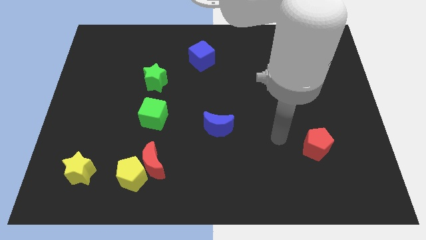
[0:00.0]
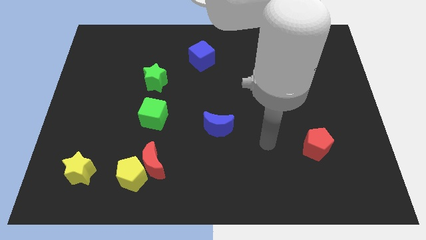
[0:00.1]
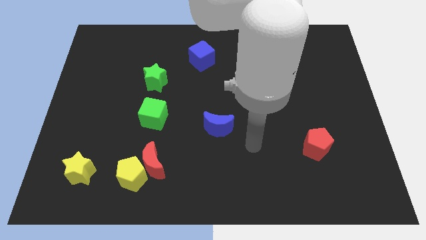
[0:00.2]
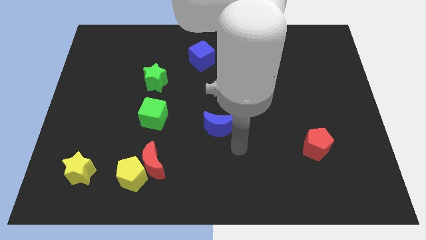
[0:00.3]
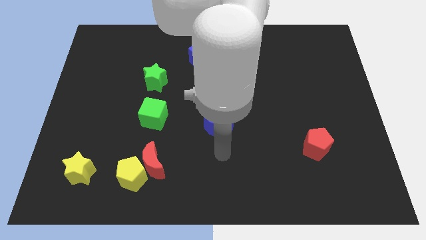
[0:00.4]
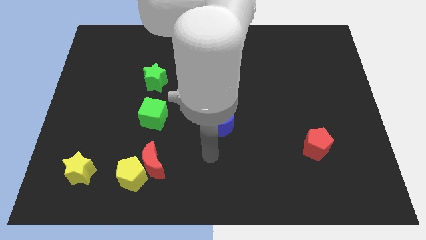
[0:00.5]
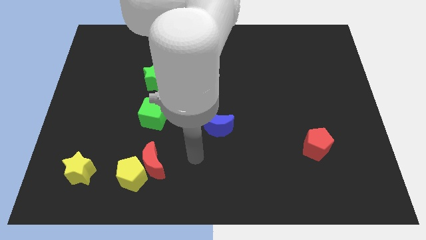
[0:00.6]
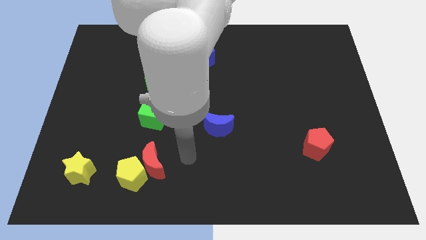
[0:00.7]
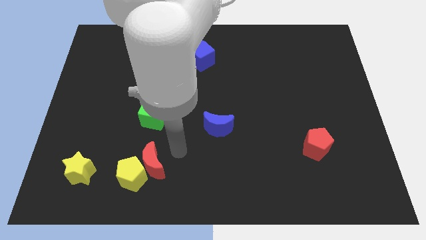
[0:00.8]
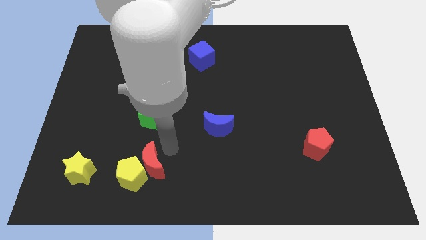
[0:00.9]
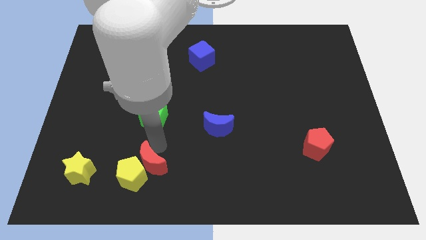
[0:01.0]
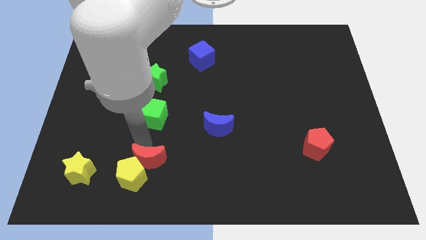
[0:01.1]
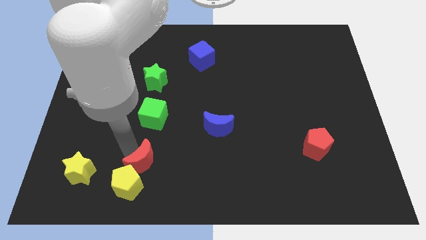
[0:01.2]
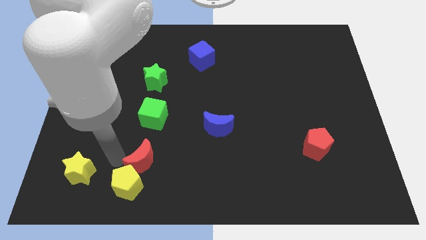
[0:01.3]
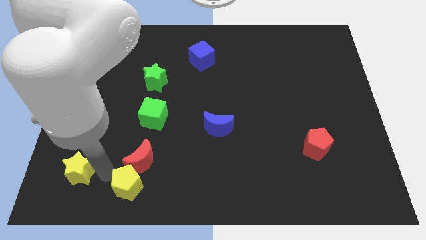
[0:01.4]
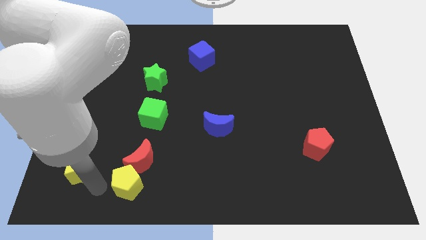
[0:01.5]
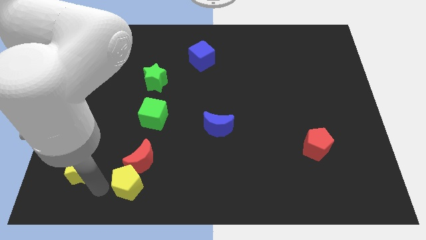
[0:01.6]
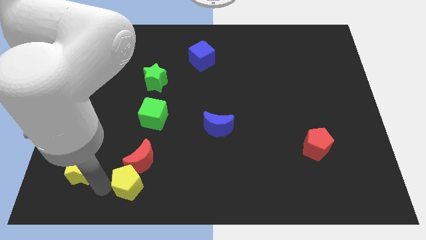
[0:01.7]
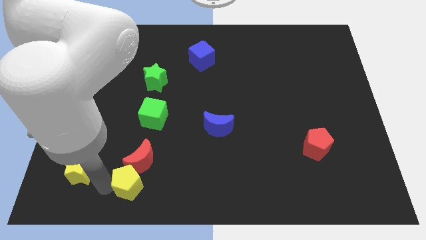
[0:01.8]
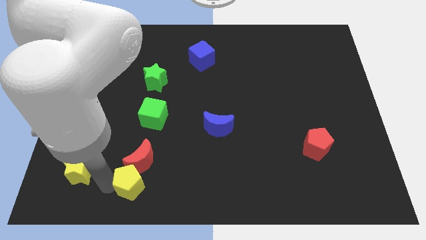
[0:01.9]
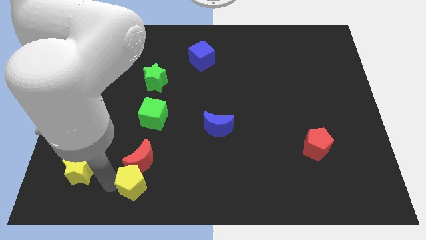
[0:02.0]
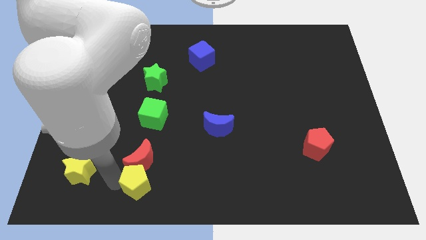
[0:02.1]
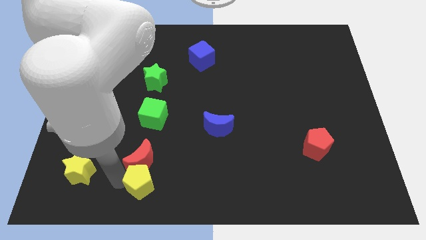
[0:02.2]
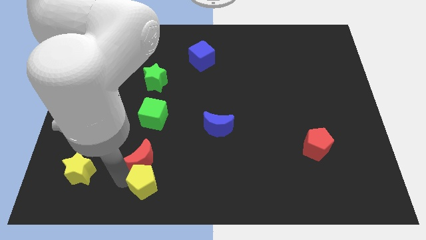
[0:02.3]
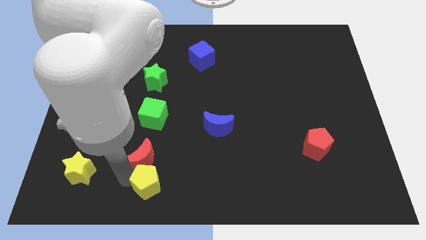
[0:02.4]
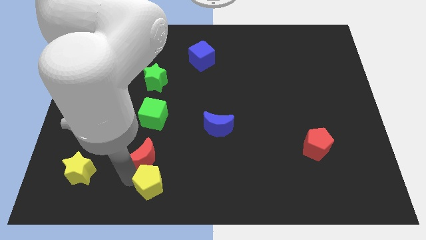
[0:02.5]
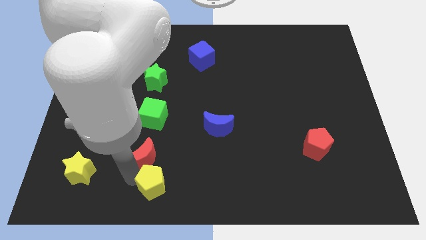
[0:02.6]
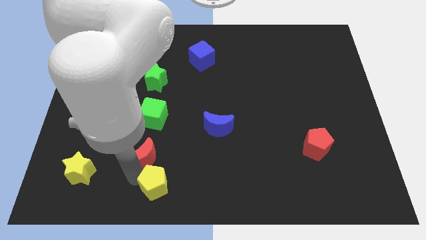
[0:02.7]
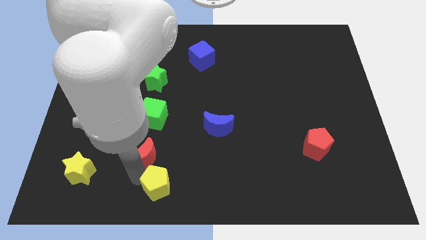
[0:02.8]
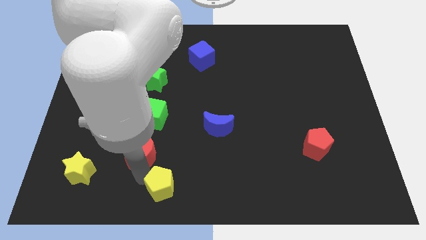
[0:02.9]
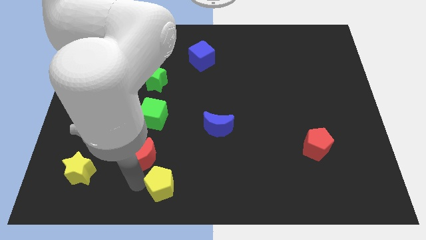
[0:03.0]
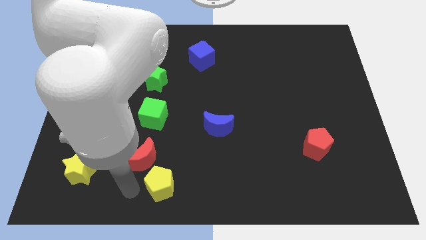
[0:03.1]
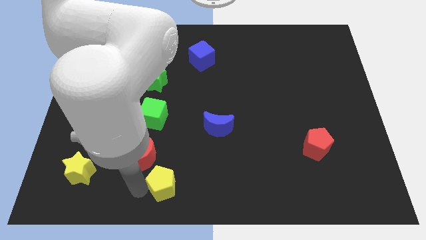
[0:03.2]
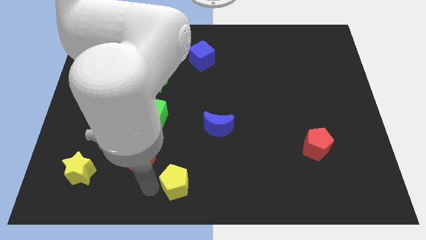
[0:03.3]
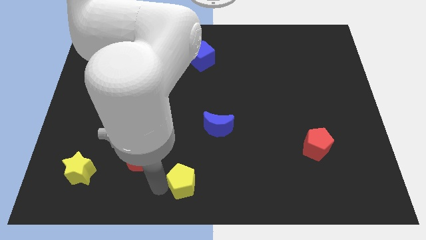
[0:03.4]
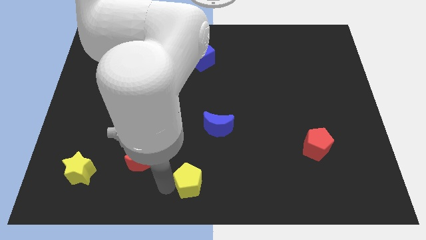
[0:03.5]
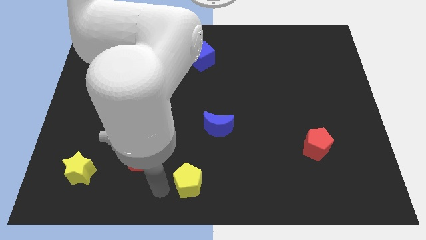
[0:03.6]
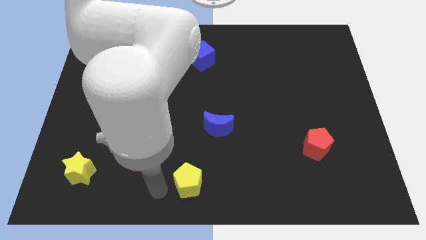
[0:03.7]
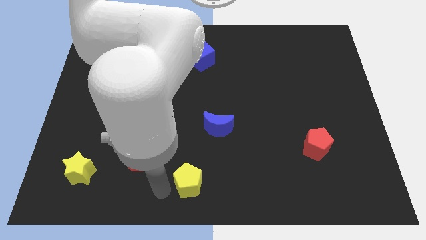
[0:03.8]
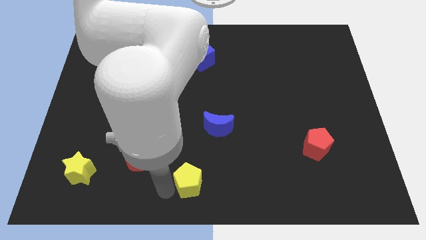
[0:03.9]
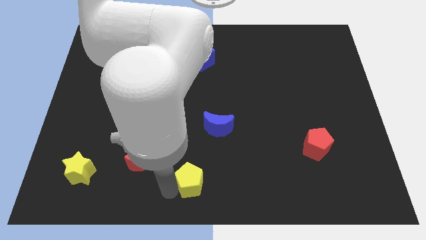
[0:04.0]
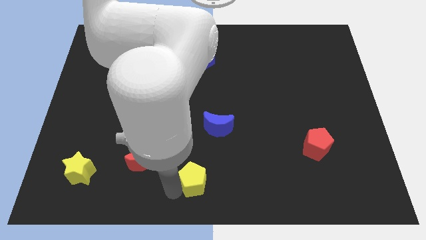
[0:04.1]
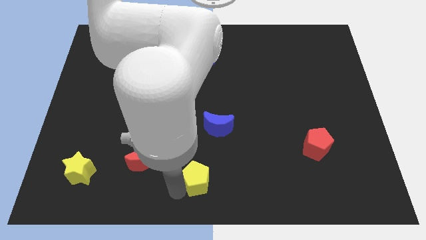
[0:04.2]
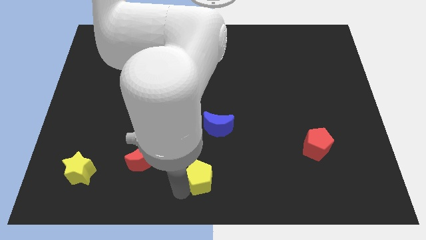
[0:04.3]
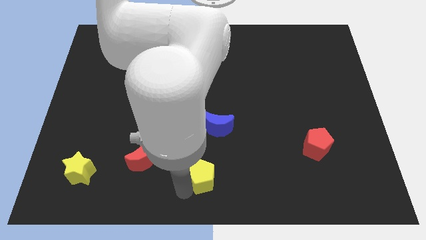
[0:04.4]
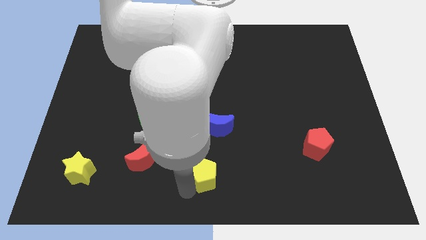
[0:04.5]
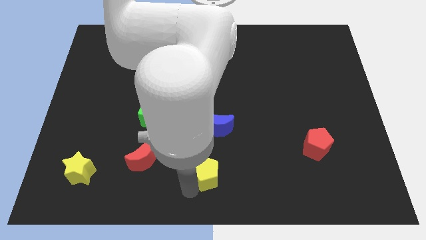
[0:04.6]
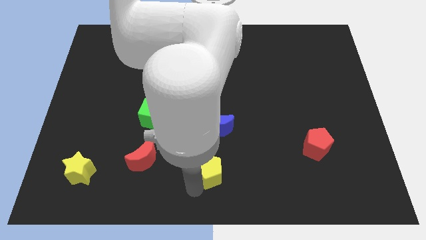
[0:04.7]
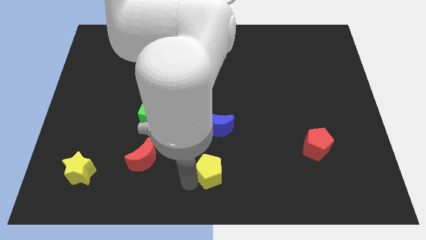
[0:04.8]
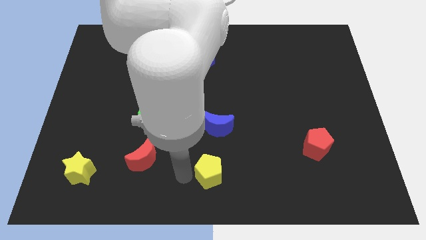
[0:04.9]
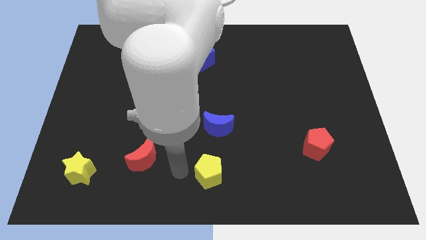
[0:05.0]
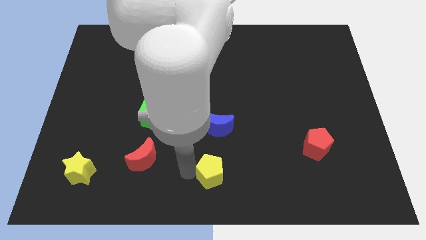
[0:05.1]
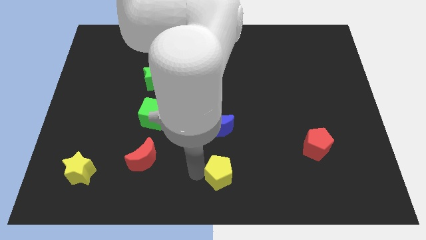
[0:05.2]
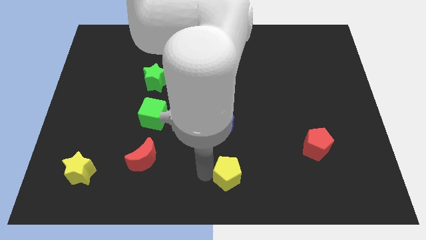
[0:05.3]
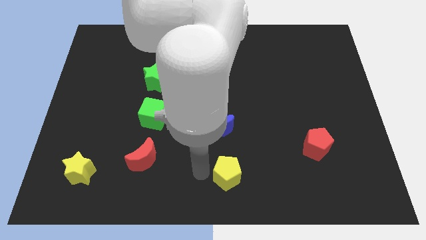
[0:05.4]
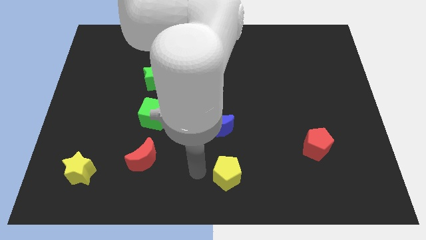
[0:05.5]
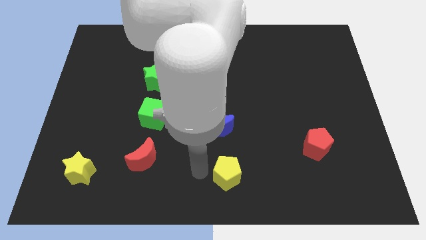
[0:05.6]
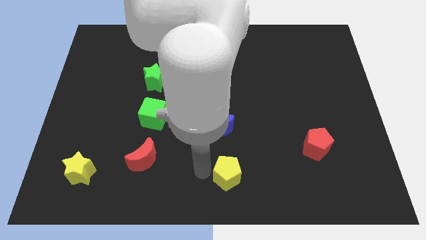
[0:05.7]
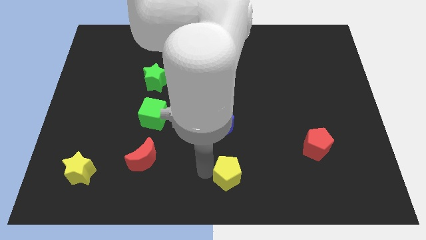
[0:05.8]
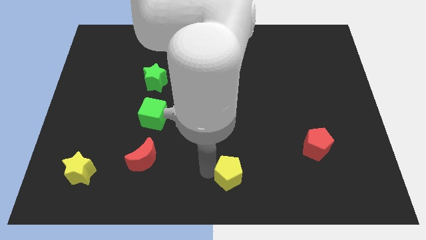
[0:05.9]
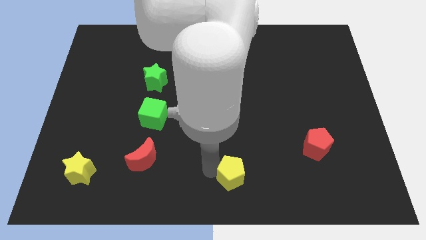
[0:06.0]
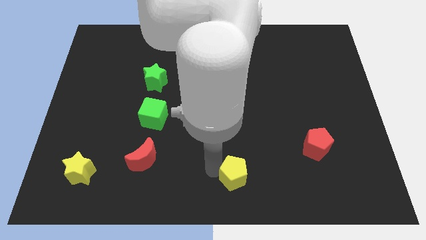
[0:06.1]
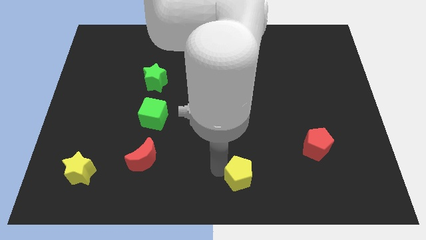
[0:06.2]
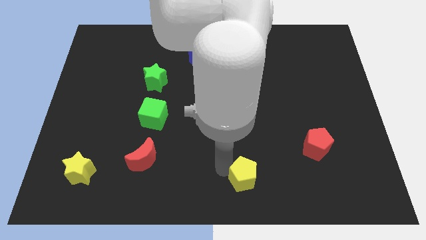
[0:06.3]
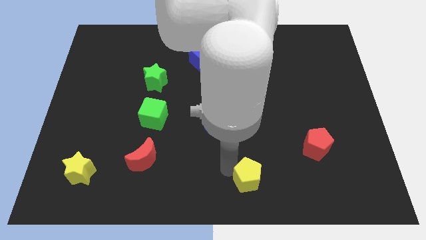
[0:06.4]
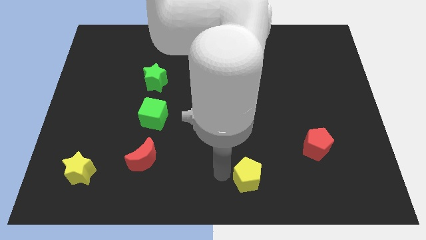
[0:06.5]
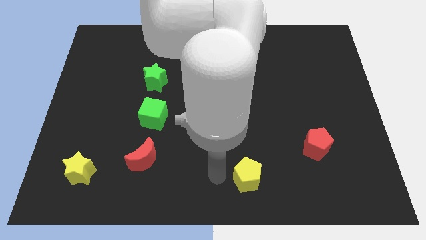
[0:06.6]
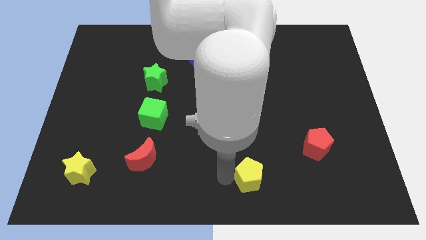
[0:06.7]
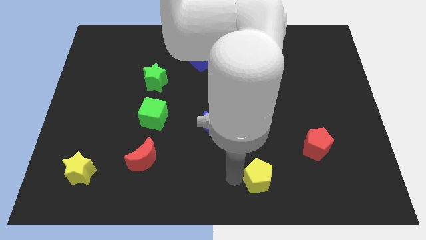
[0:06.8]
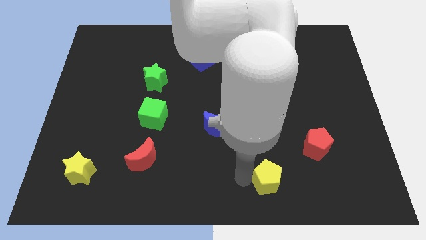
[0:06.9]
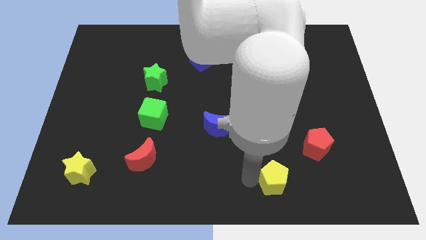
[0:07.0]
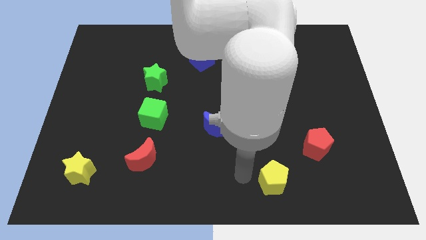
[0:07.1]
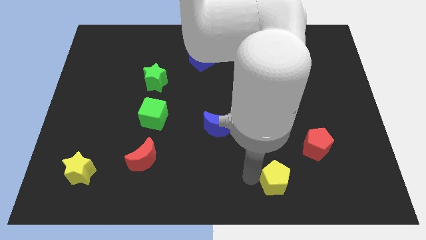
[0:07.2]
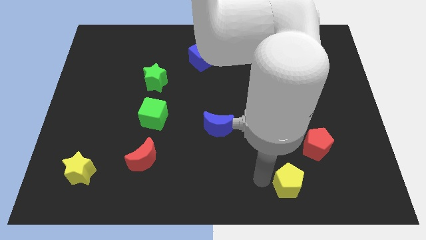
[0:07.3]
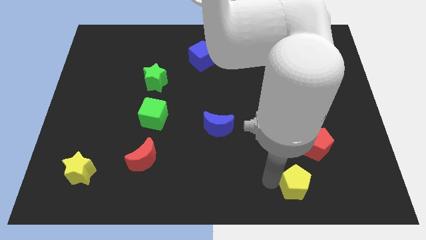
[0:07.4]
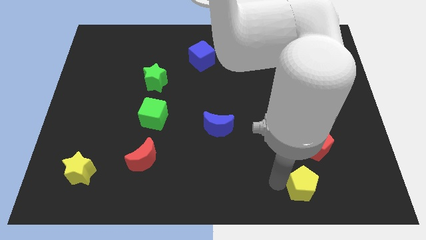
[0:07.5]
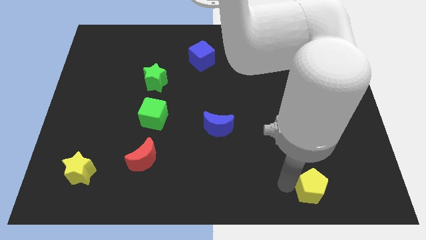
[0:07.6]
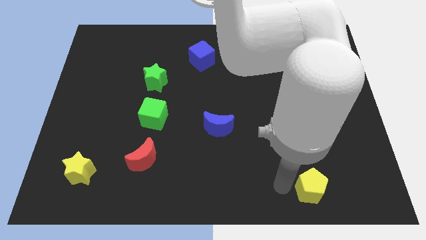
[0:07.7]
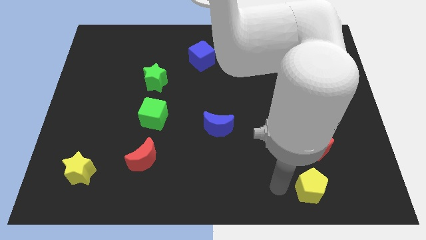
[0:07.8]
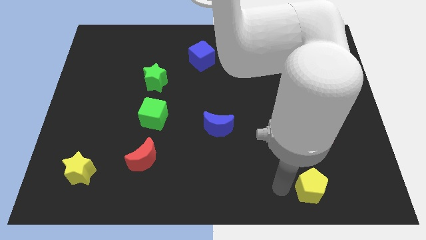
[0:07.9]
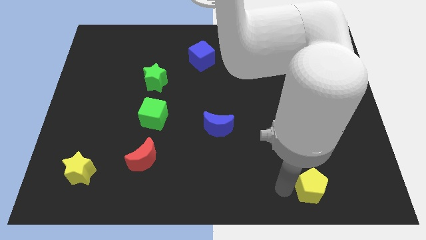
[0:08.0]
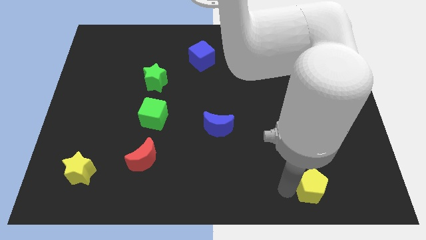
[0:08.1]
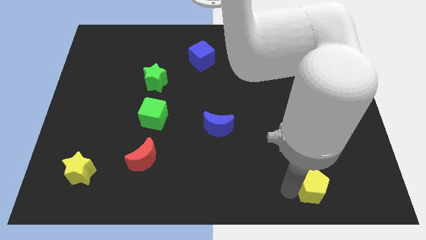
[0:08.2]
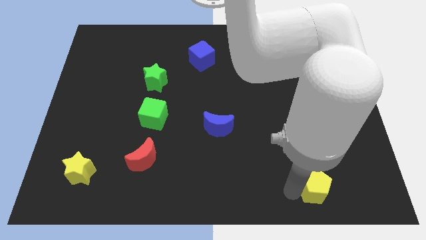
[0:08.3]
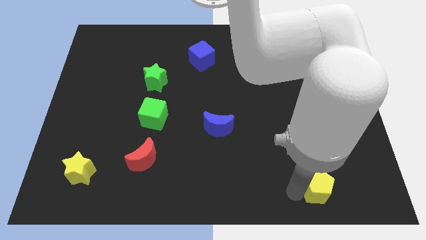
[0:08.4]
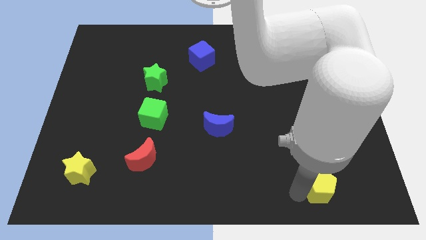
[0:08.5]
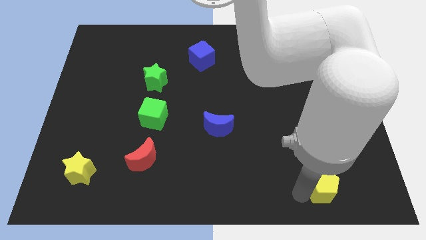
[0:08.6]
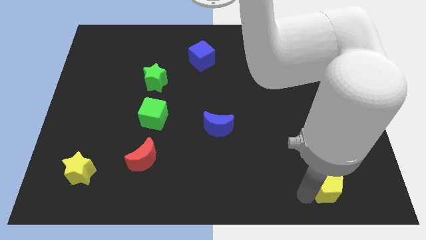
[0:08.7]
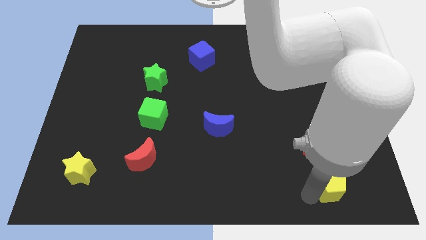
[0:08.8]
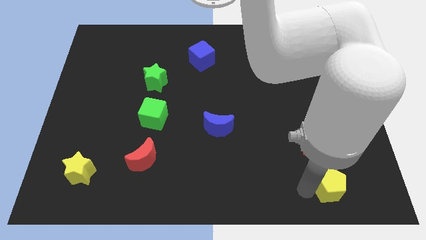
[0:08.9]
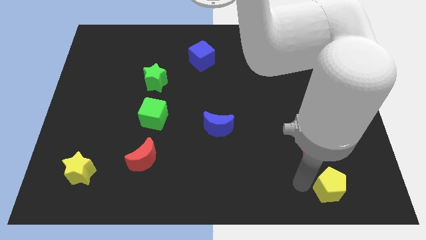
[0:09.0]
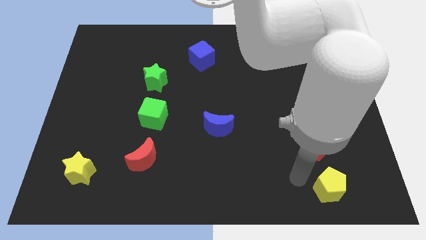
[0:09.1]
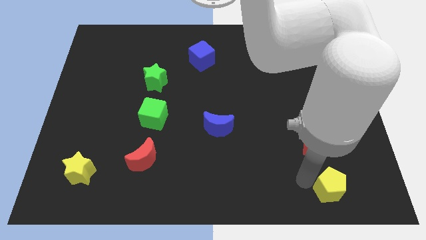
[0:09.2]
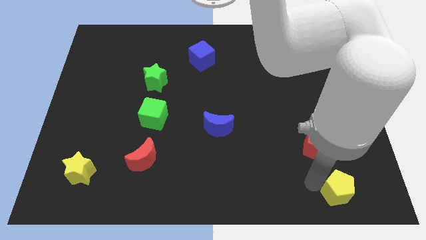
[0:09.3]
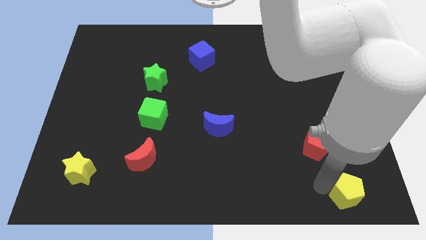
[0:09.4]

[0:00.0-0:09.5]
put the yellow pentagon to the bottom right of the board
